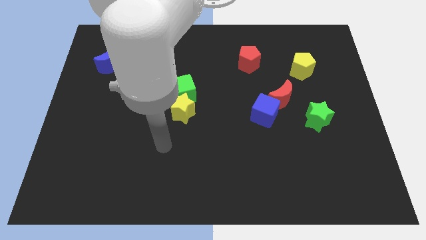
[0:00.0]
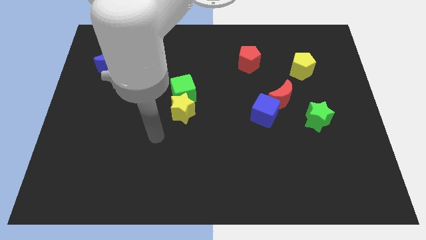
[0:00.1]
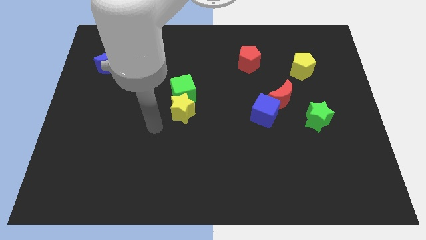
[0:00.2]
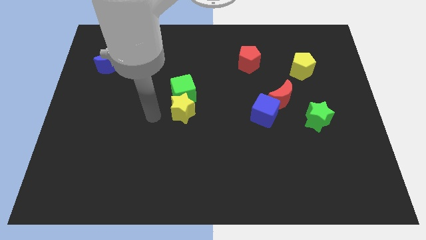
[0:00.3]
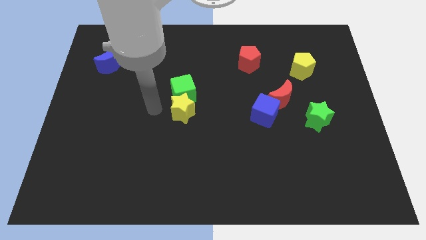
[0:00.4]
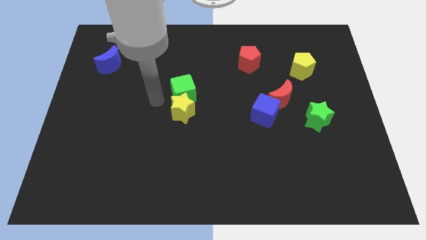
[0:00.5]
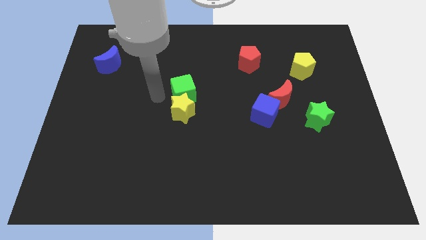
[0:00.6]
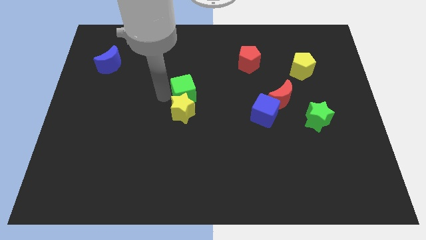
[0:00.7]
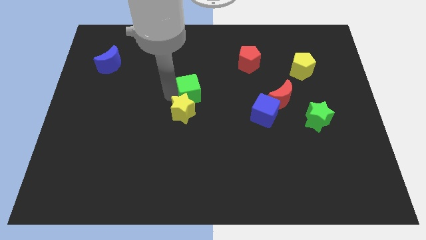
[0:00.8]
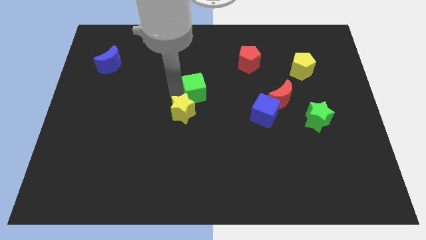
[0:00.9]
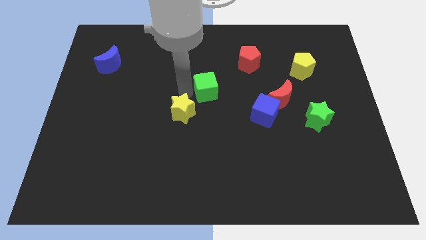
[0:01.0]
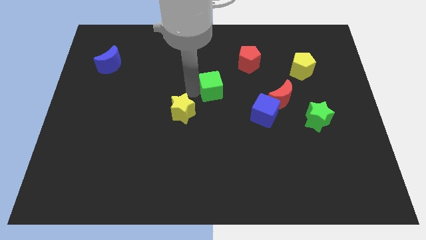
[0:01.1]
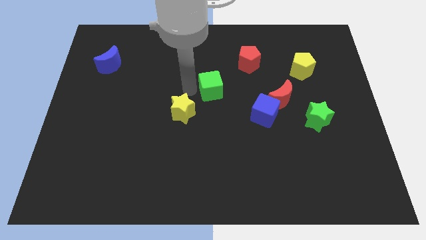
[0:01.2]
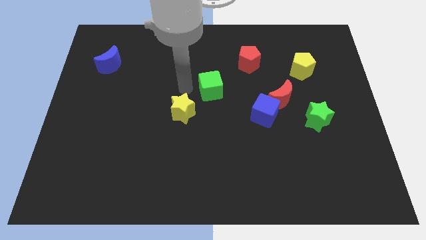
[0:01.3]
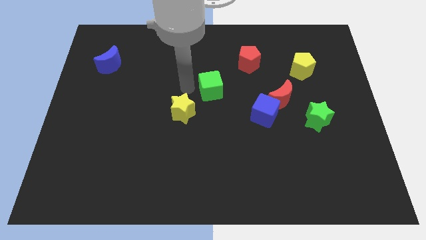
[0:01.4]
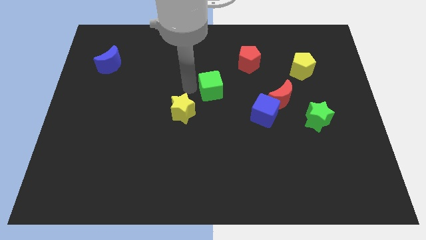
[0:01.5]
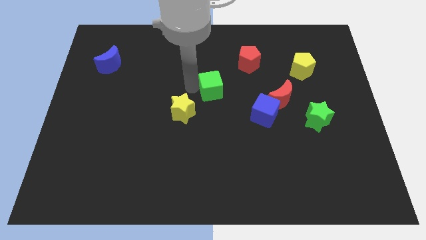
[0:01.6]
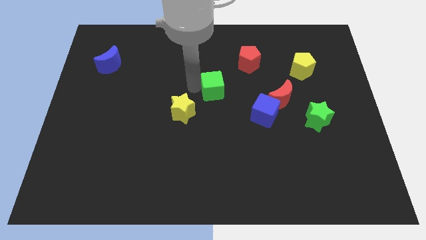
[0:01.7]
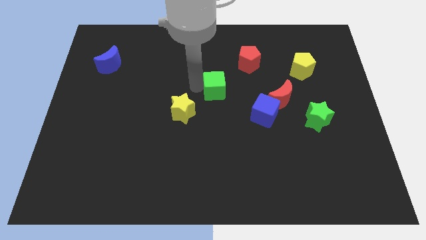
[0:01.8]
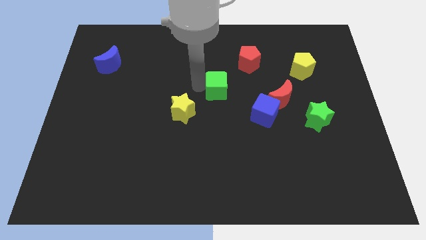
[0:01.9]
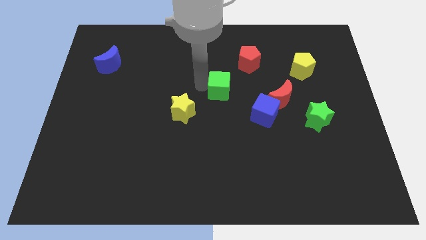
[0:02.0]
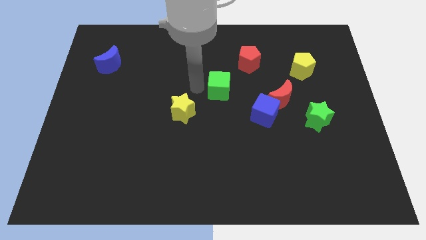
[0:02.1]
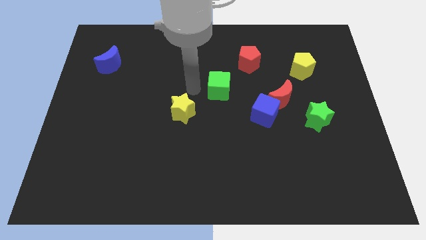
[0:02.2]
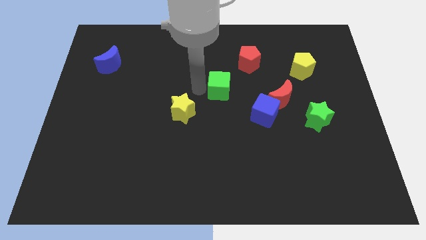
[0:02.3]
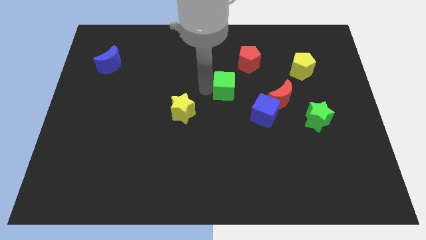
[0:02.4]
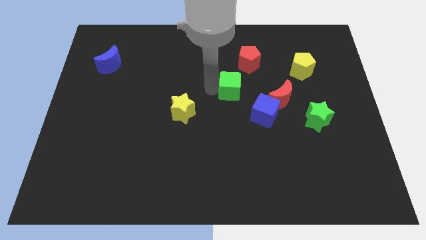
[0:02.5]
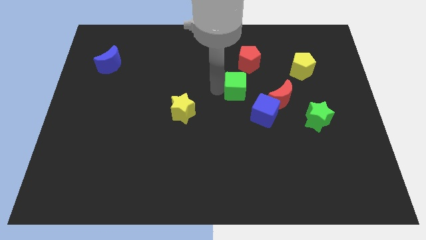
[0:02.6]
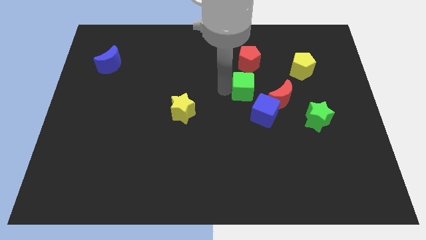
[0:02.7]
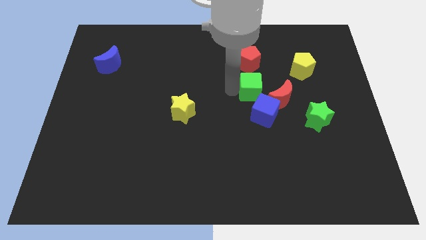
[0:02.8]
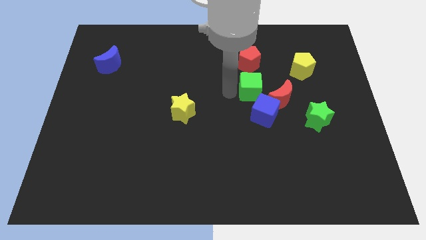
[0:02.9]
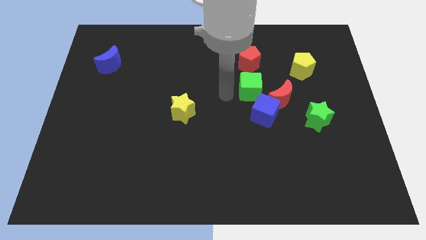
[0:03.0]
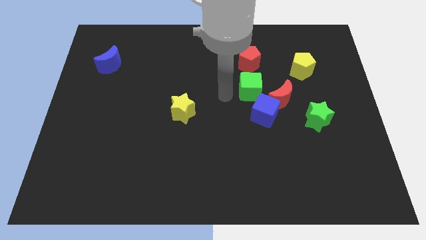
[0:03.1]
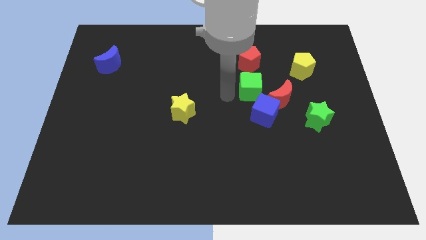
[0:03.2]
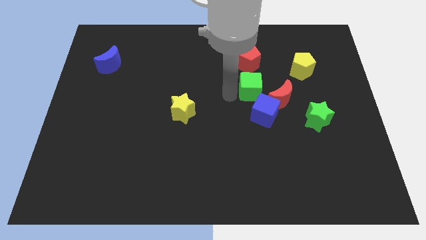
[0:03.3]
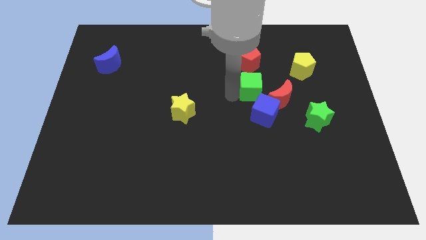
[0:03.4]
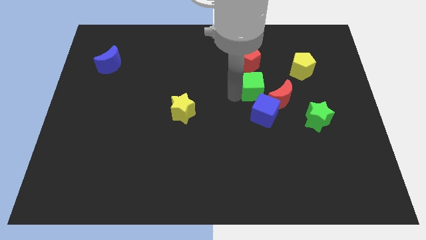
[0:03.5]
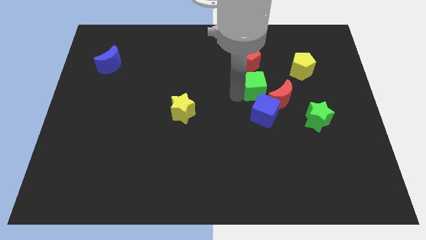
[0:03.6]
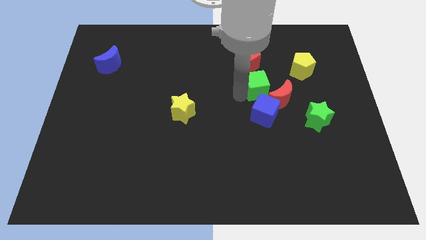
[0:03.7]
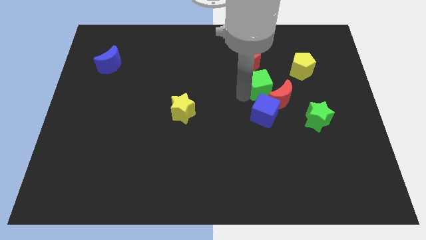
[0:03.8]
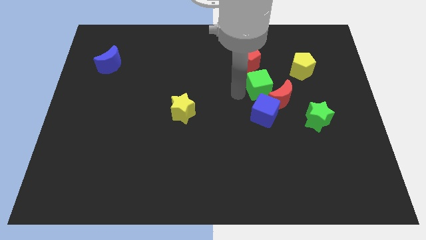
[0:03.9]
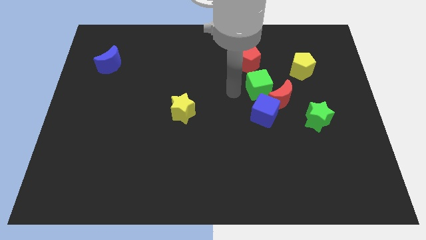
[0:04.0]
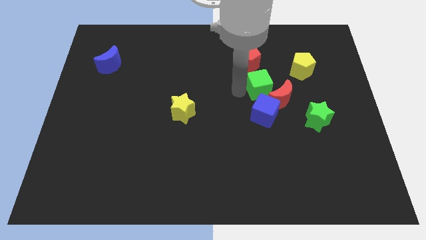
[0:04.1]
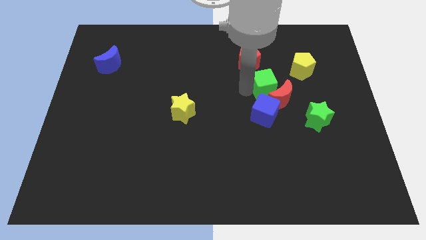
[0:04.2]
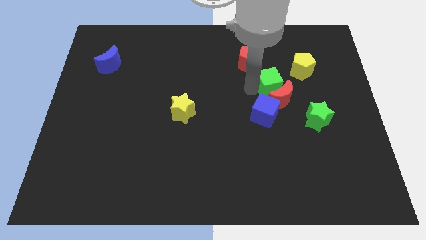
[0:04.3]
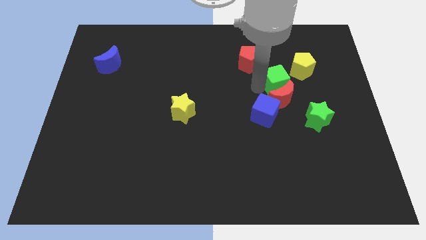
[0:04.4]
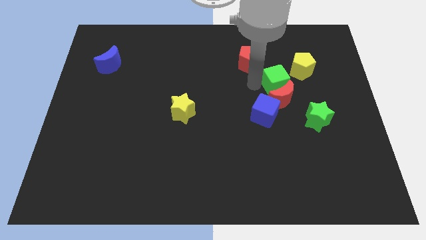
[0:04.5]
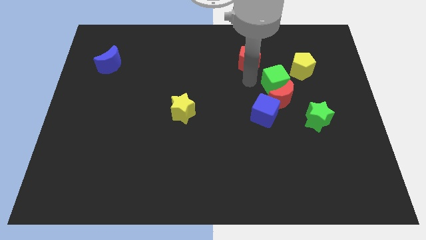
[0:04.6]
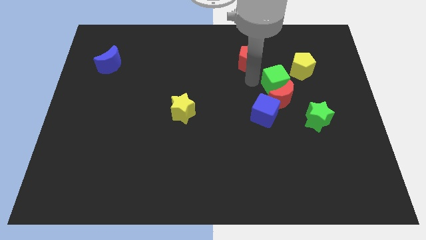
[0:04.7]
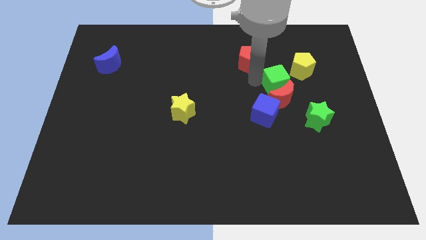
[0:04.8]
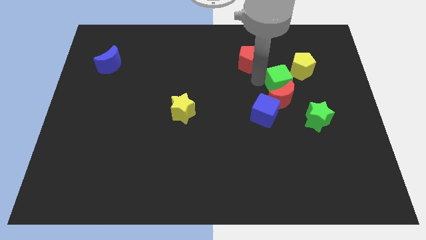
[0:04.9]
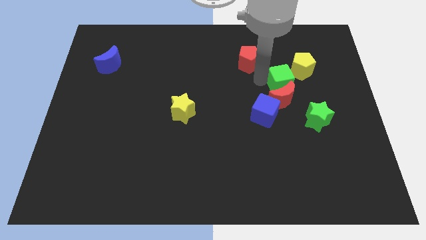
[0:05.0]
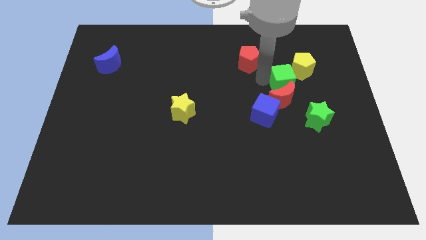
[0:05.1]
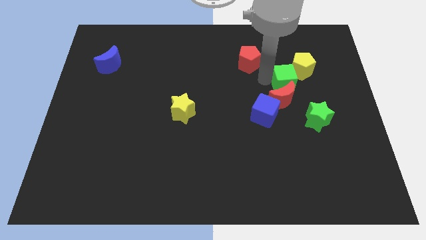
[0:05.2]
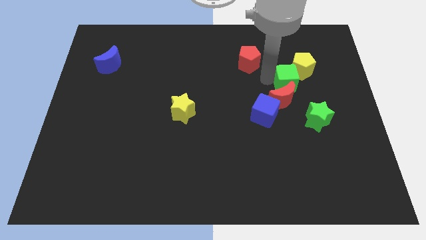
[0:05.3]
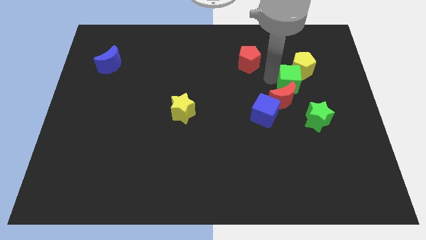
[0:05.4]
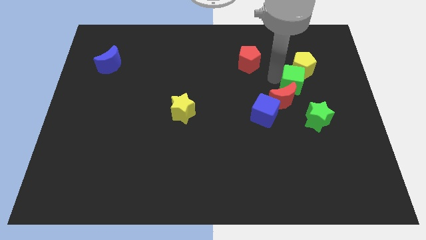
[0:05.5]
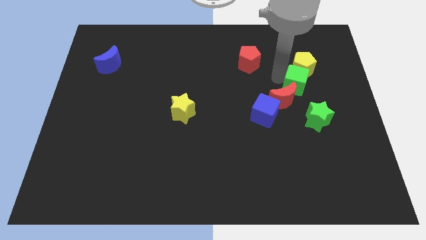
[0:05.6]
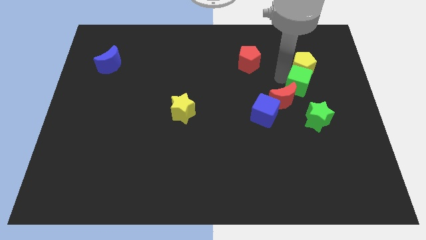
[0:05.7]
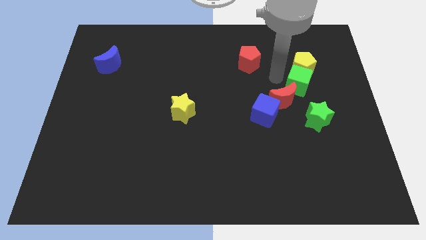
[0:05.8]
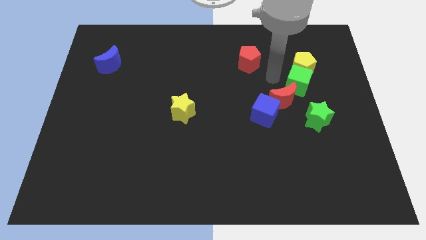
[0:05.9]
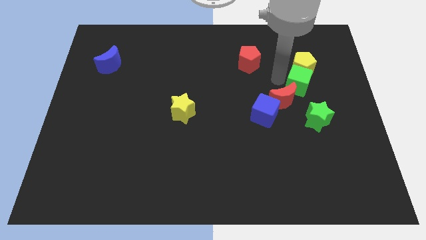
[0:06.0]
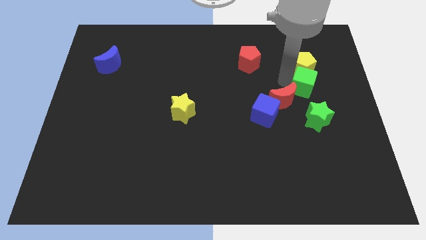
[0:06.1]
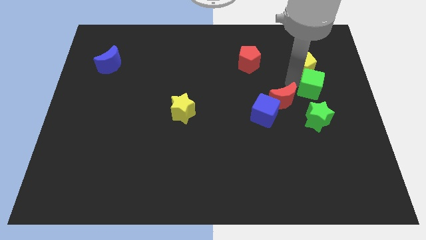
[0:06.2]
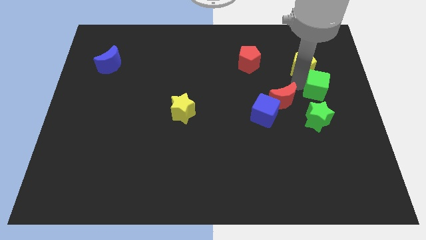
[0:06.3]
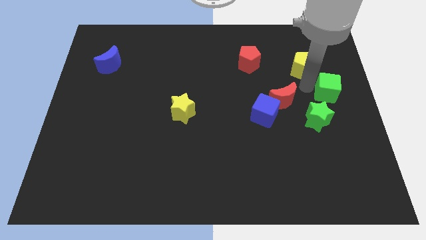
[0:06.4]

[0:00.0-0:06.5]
put the green cube to the right side of the board

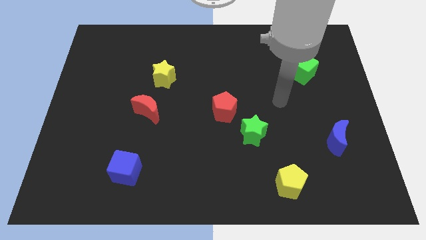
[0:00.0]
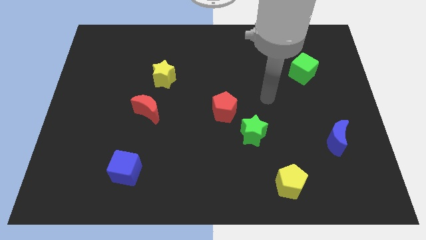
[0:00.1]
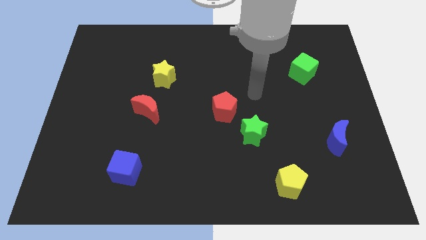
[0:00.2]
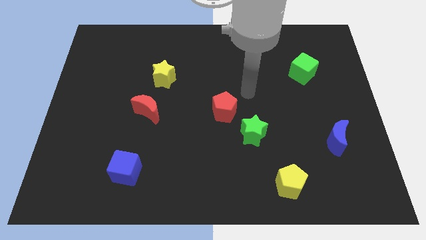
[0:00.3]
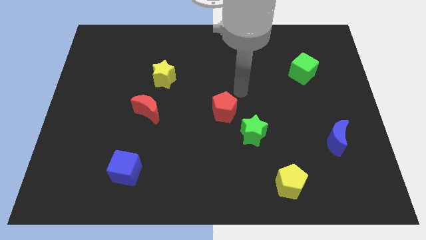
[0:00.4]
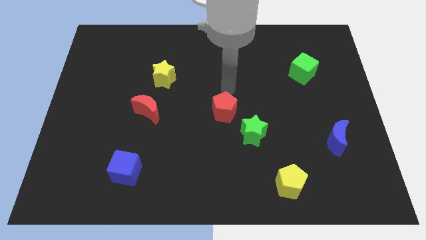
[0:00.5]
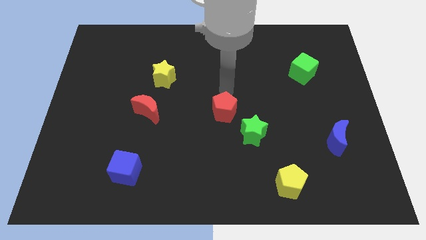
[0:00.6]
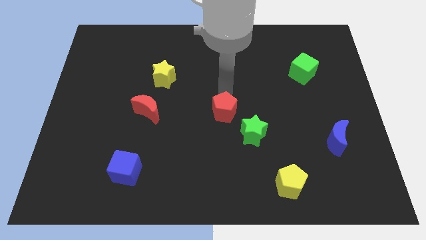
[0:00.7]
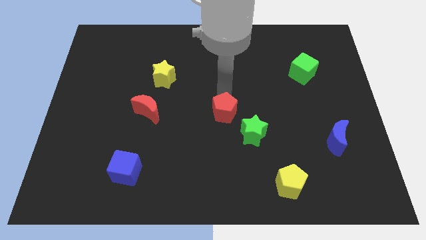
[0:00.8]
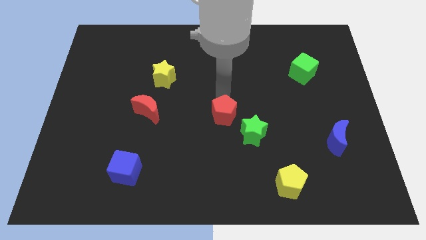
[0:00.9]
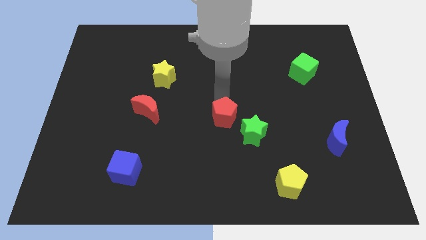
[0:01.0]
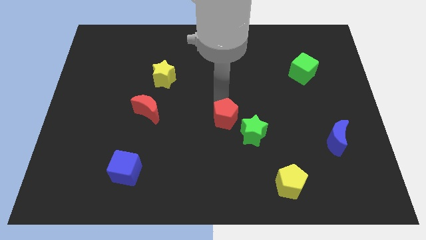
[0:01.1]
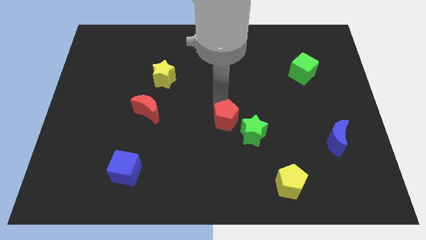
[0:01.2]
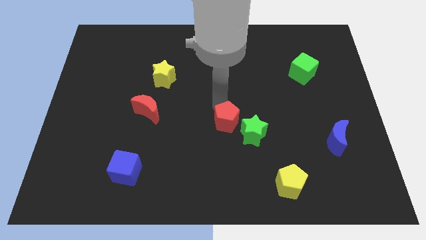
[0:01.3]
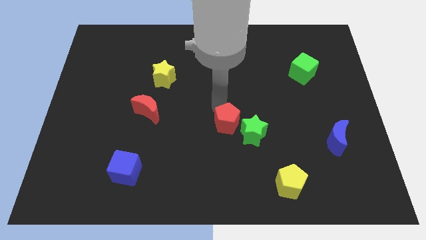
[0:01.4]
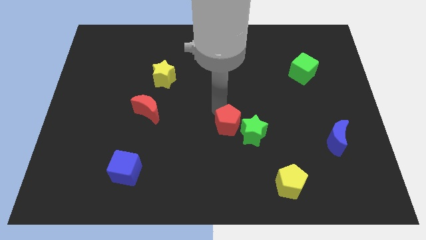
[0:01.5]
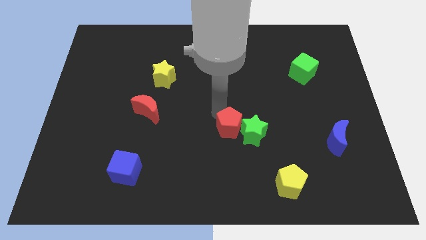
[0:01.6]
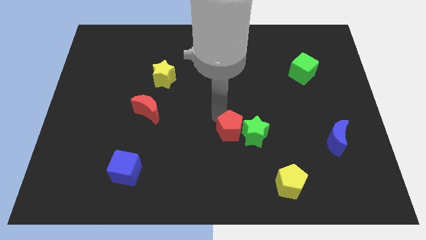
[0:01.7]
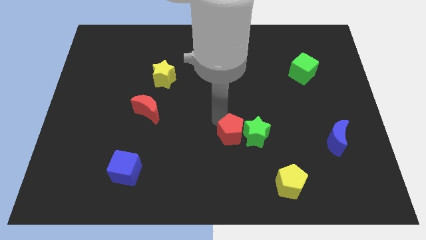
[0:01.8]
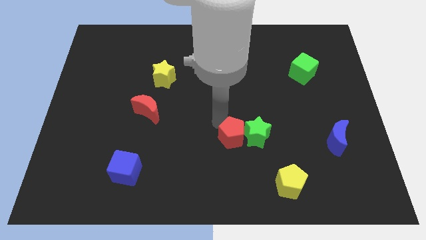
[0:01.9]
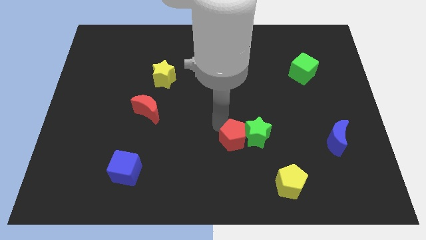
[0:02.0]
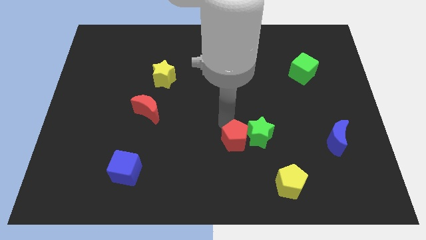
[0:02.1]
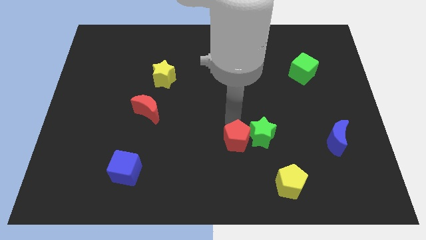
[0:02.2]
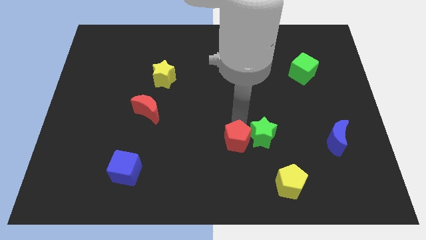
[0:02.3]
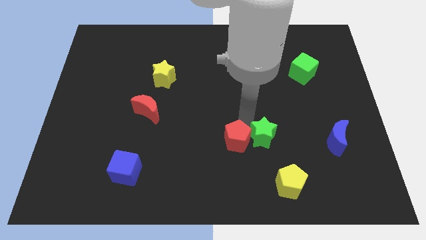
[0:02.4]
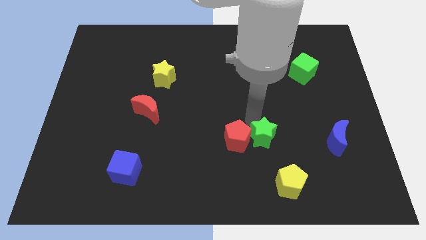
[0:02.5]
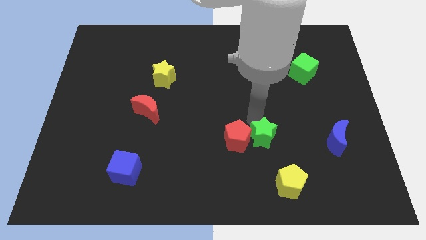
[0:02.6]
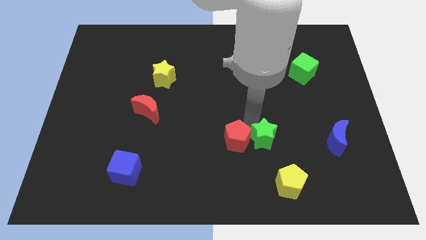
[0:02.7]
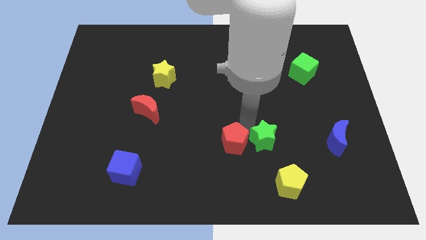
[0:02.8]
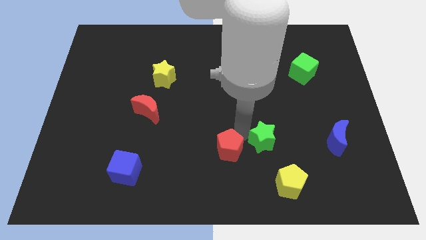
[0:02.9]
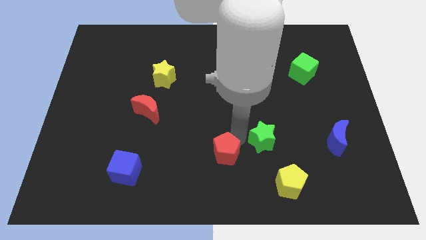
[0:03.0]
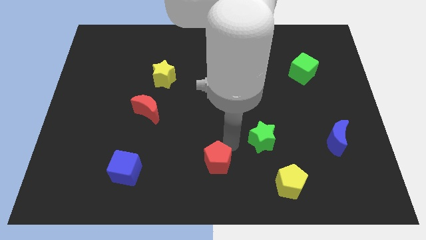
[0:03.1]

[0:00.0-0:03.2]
put the red pentagon to the bottom side
